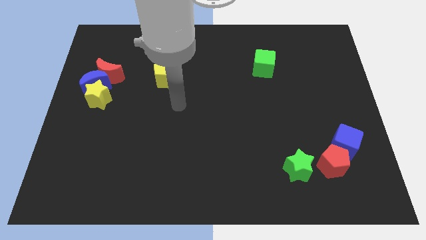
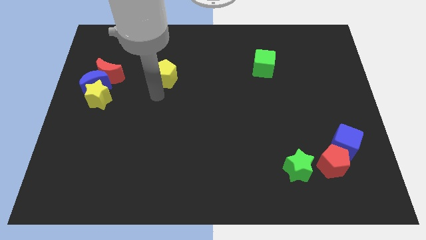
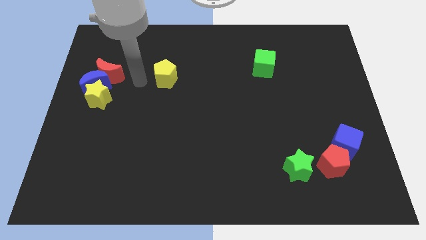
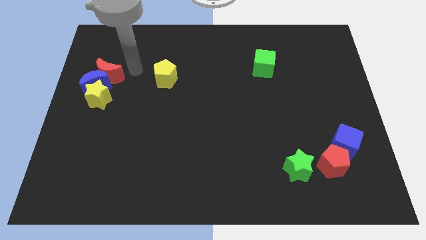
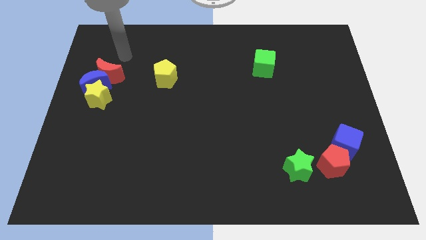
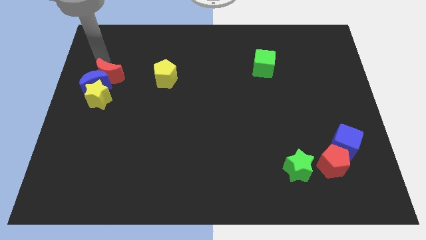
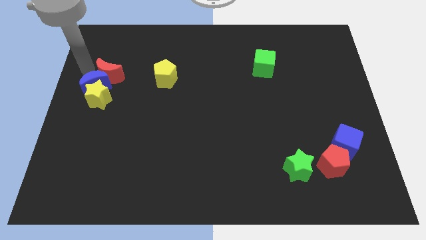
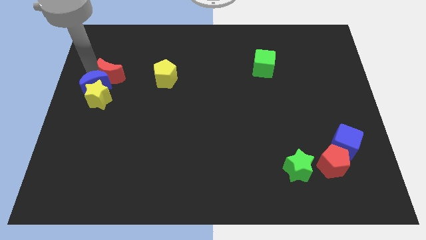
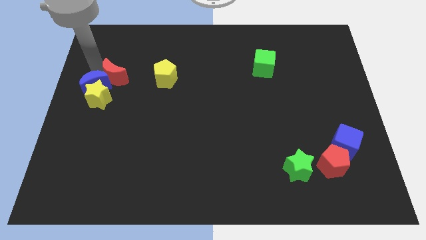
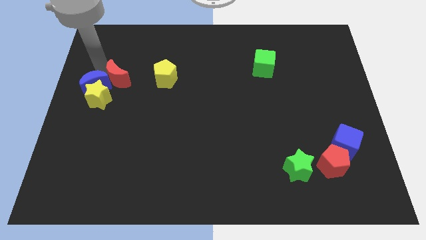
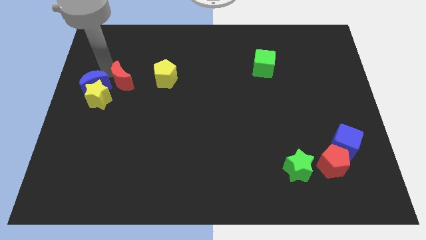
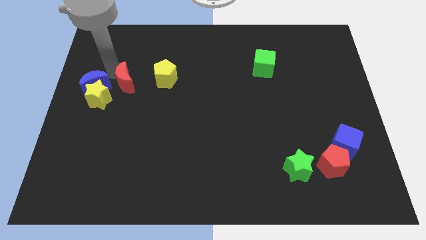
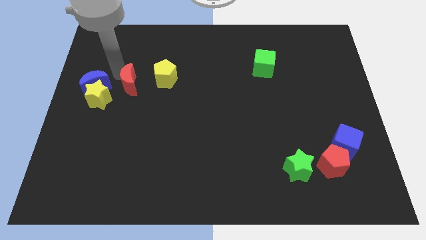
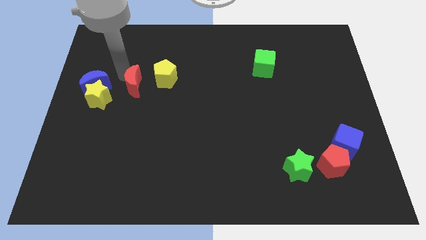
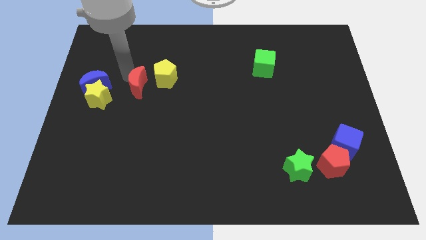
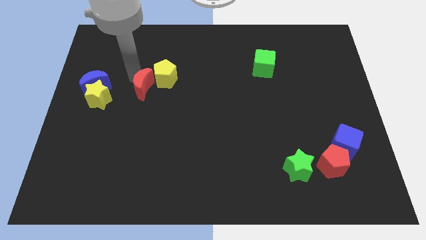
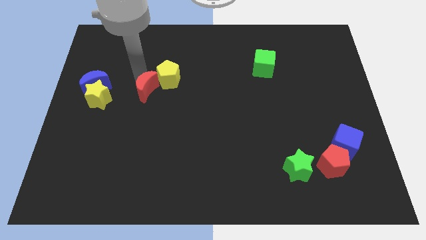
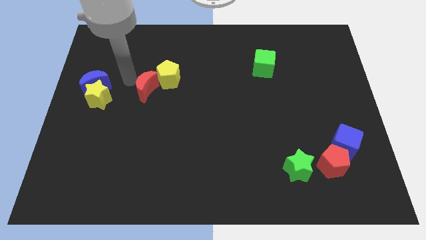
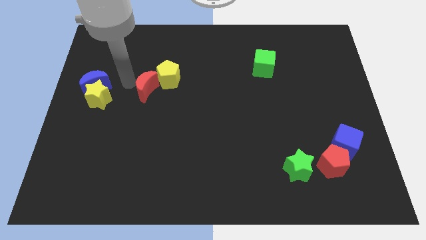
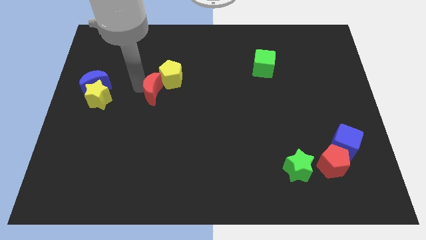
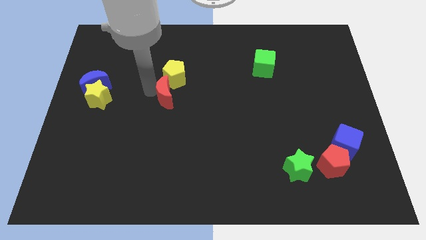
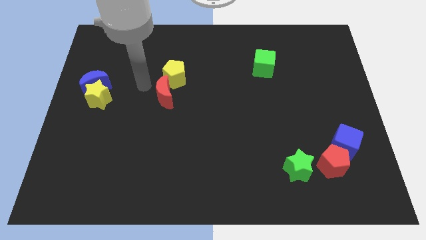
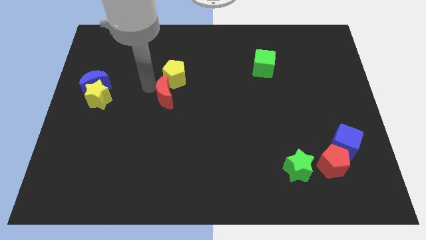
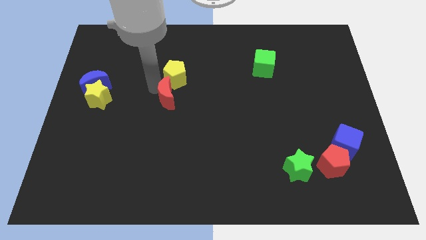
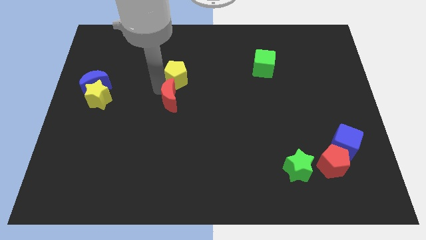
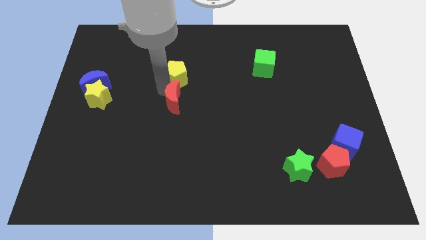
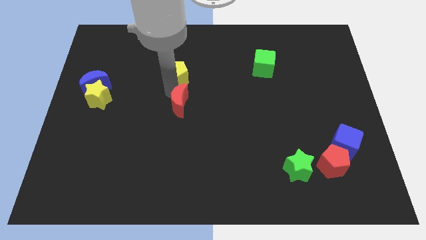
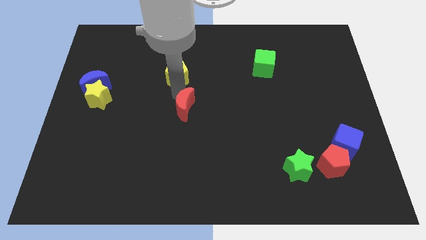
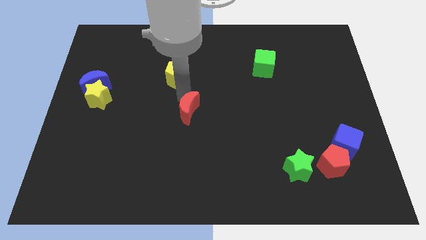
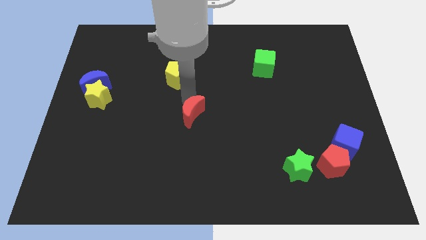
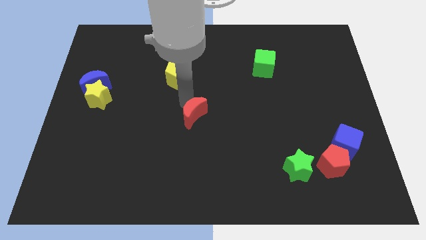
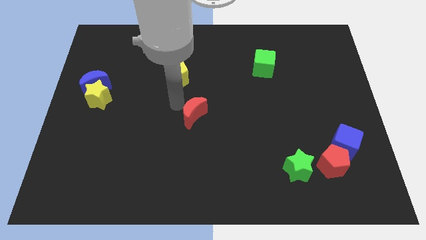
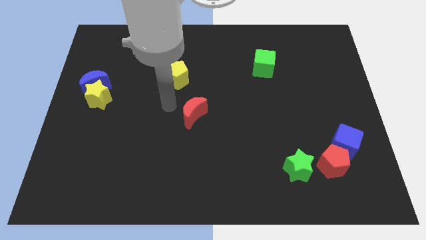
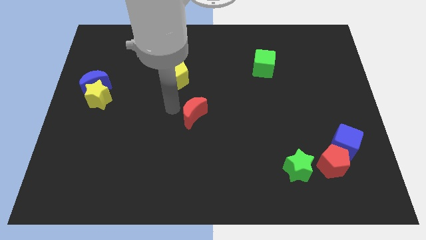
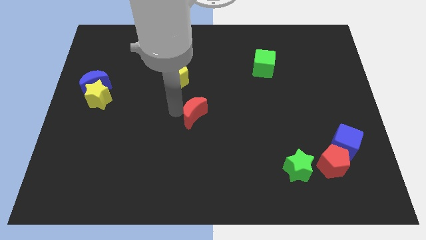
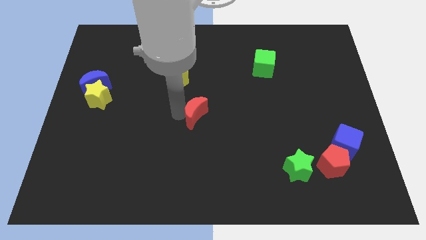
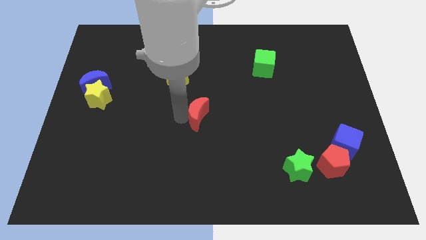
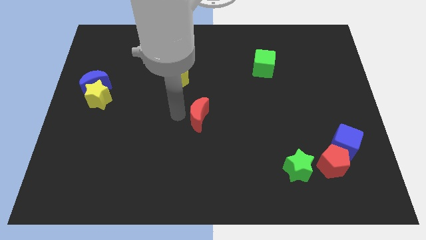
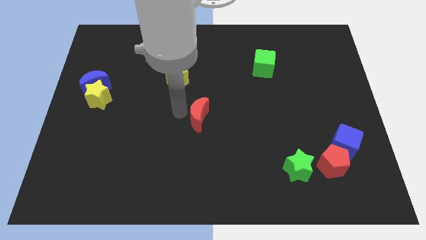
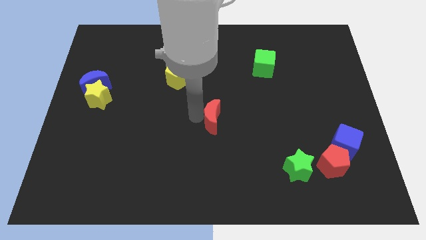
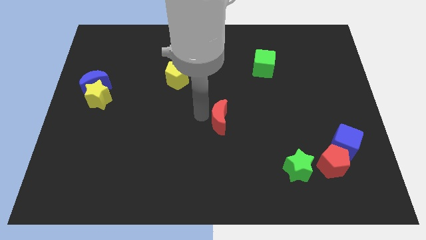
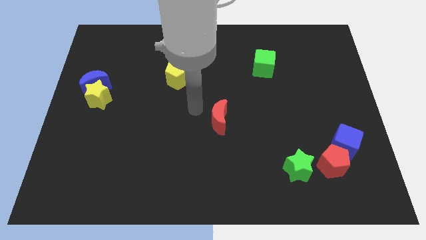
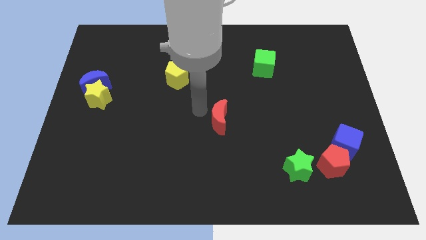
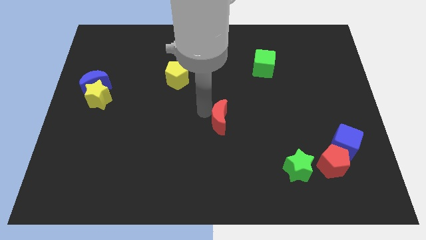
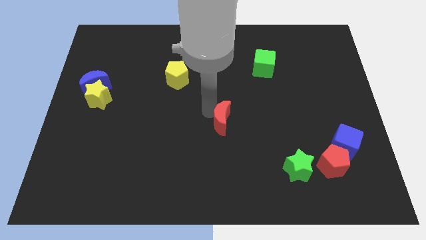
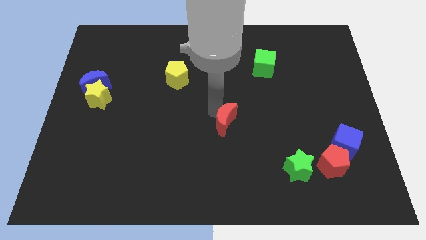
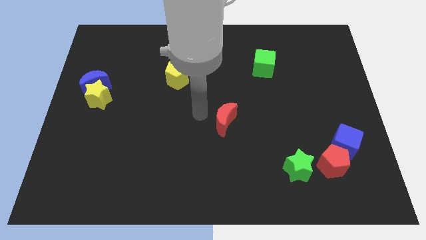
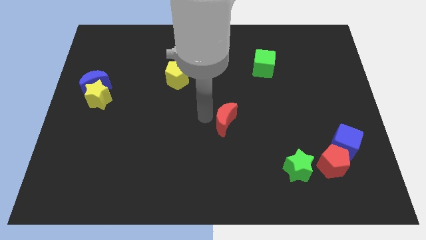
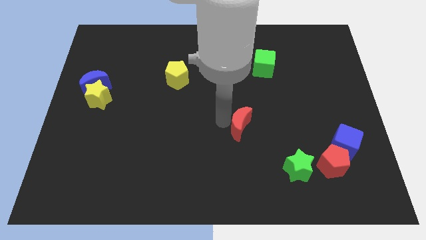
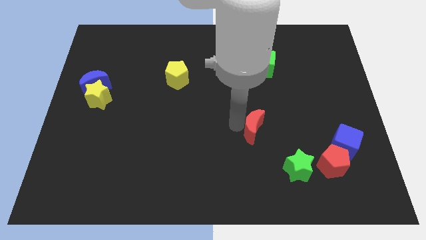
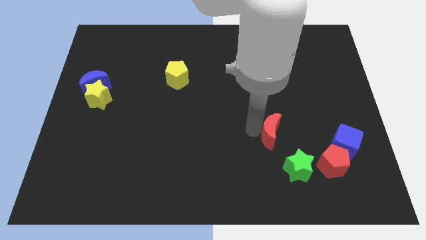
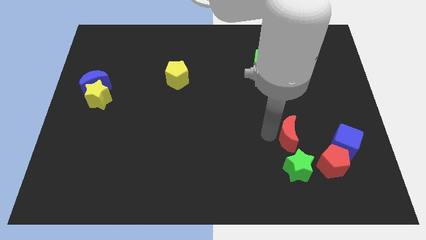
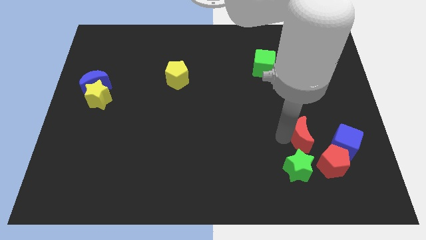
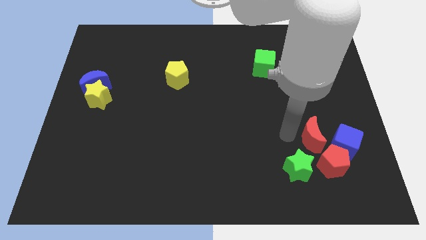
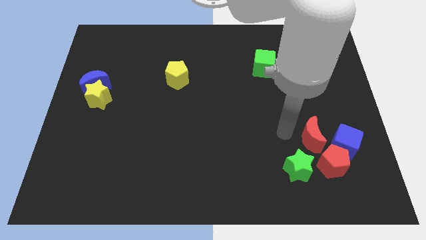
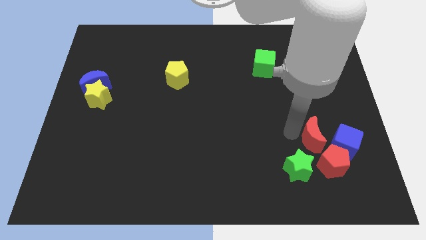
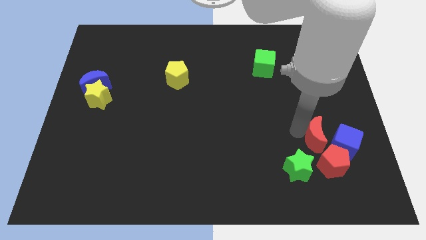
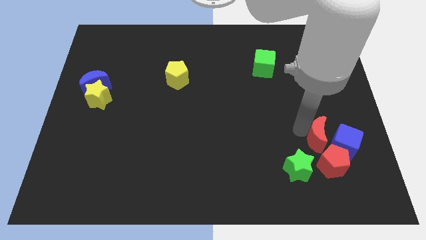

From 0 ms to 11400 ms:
slide the red moon next to the blue cube

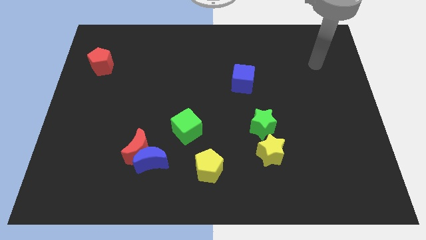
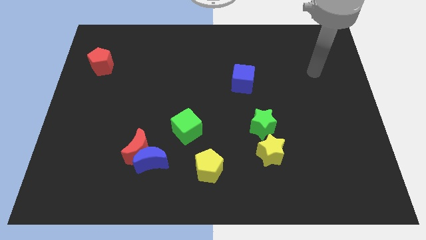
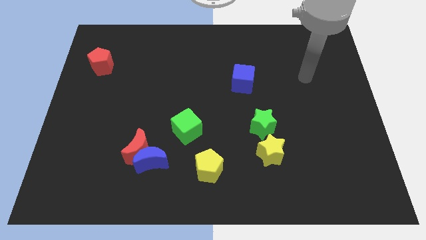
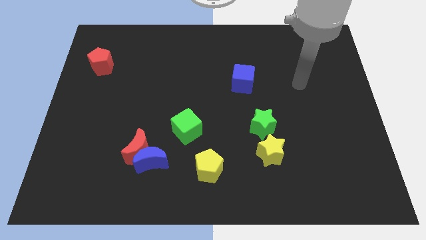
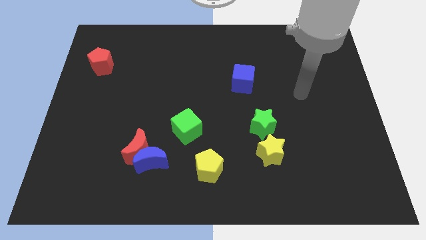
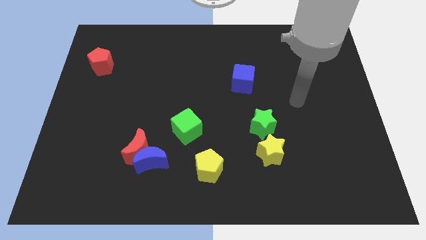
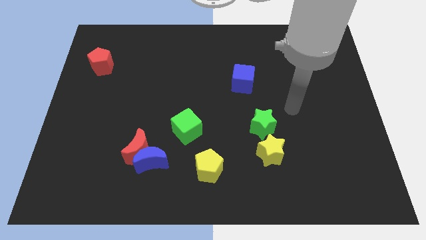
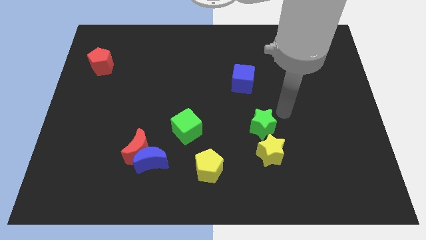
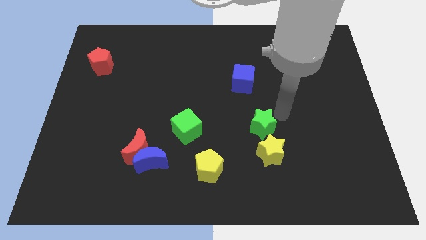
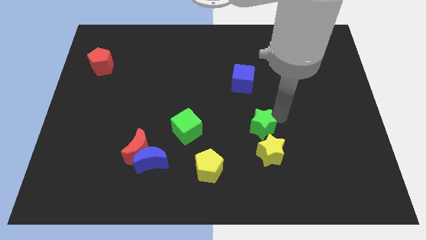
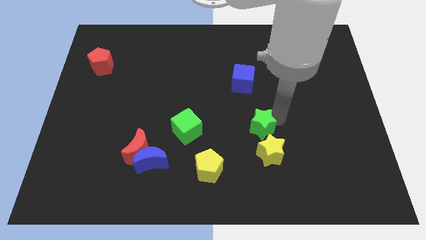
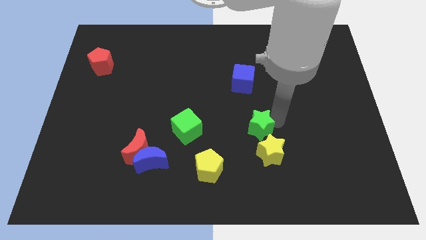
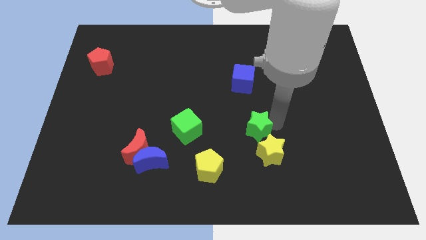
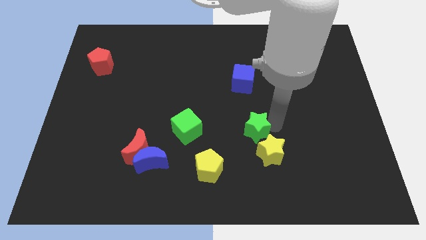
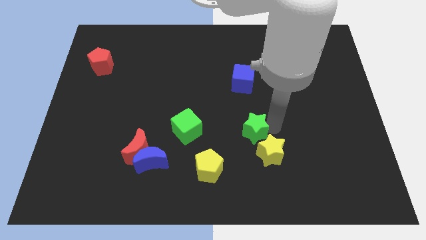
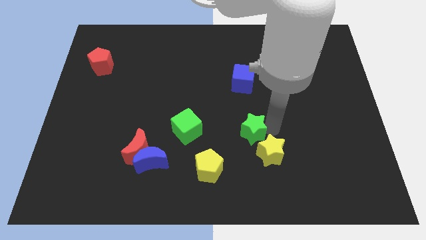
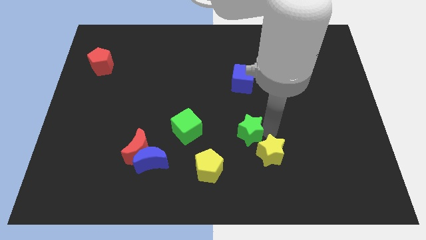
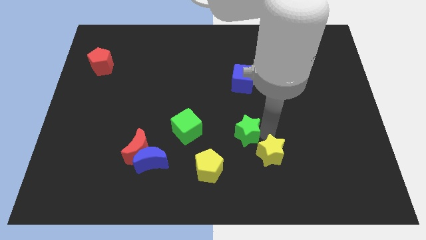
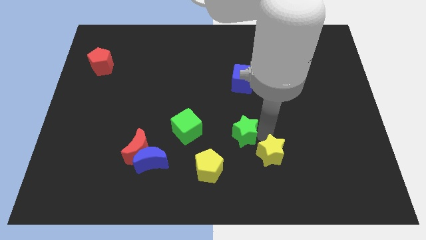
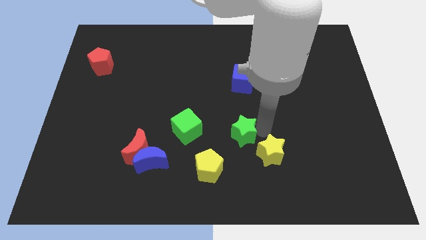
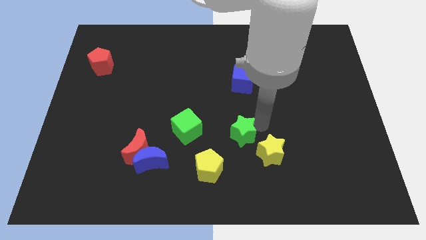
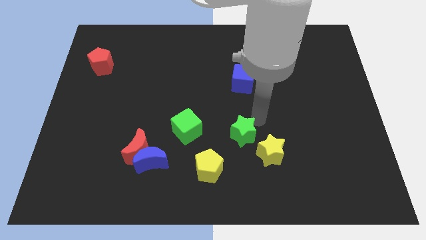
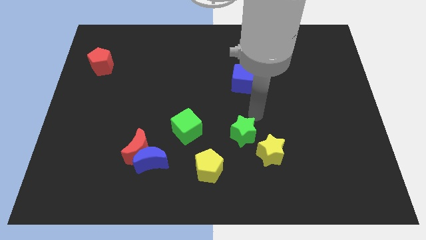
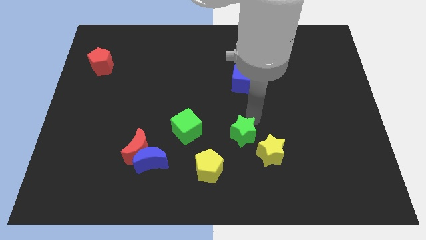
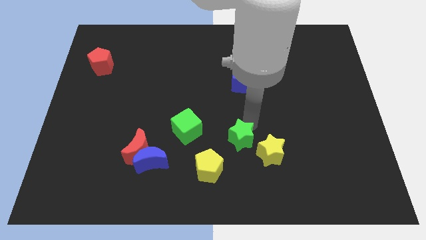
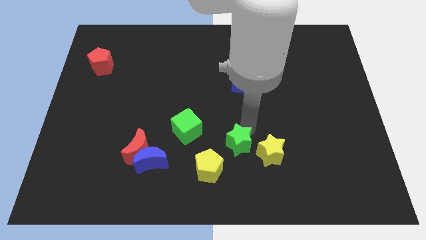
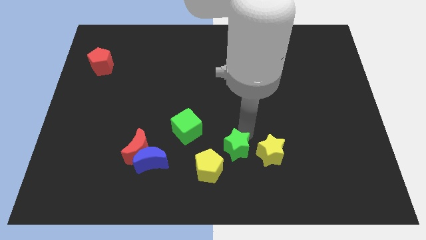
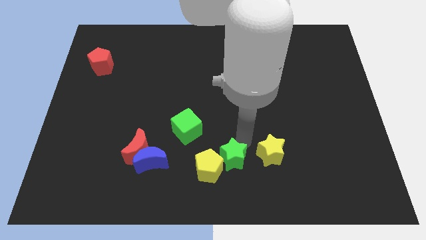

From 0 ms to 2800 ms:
move the green star next to the yellow pentagon
